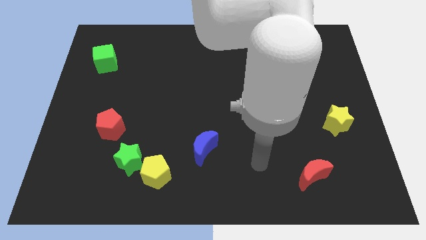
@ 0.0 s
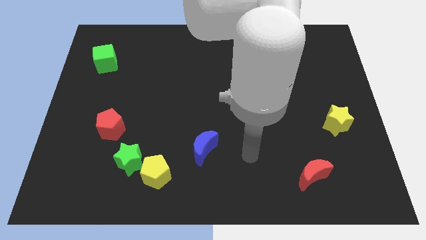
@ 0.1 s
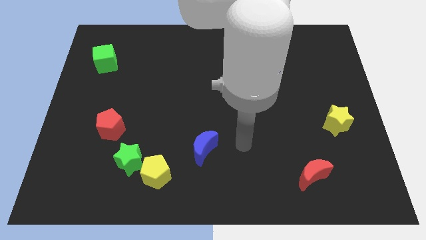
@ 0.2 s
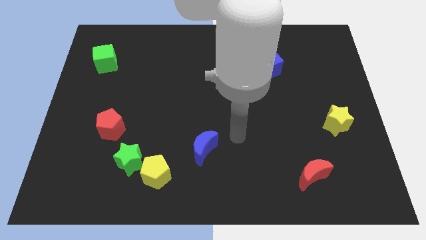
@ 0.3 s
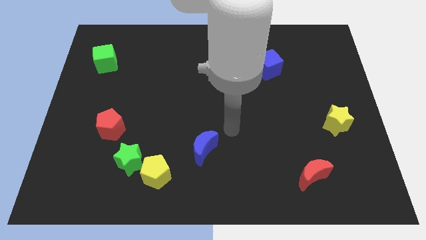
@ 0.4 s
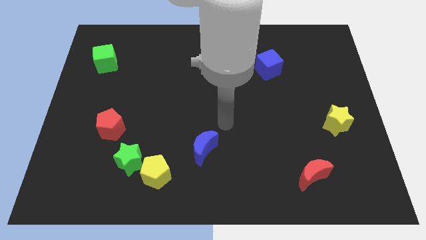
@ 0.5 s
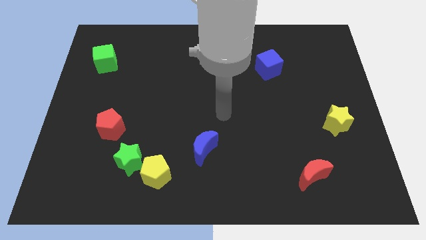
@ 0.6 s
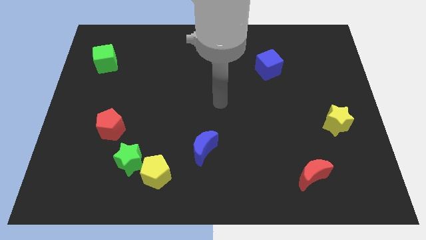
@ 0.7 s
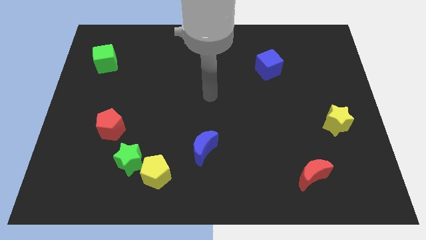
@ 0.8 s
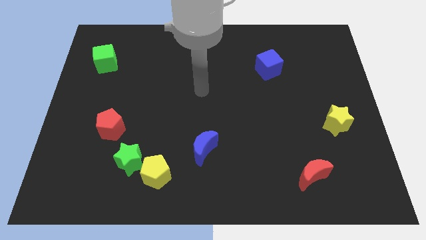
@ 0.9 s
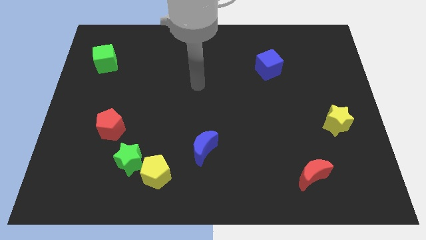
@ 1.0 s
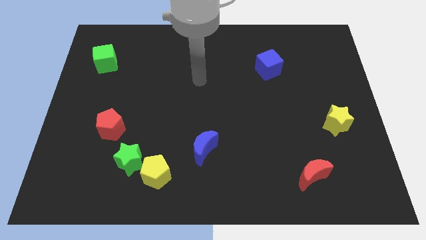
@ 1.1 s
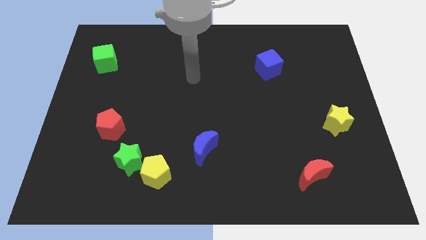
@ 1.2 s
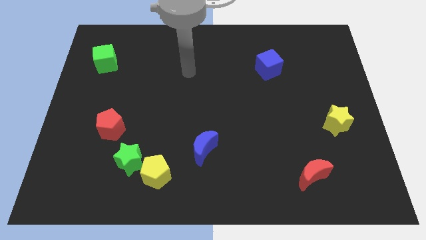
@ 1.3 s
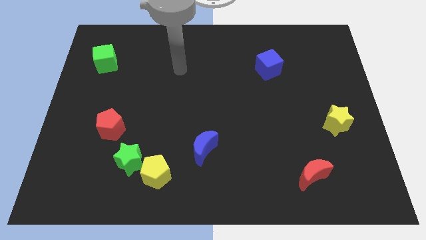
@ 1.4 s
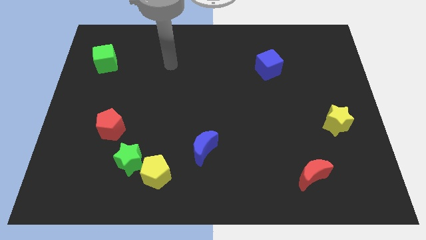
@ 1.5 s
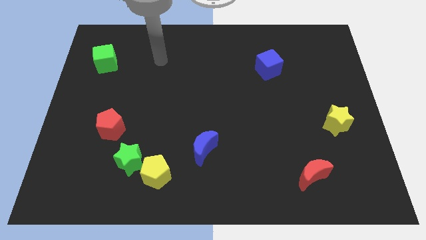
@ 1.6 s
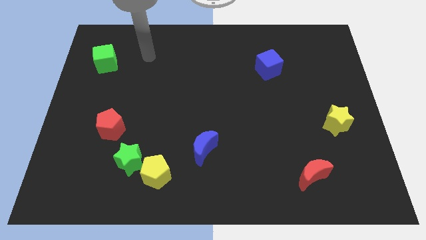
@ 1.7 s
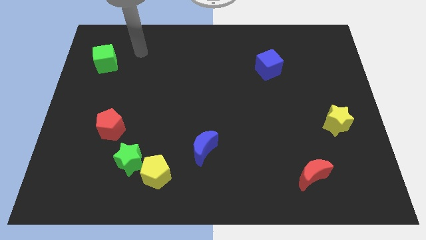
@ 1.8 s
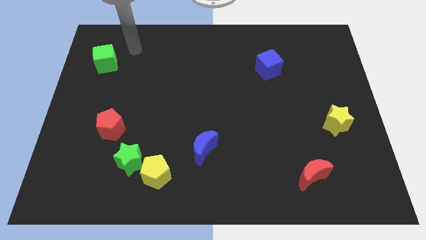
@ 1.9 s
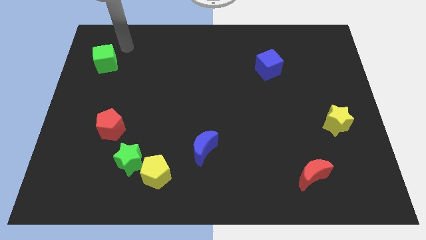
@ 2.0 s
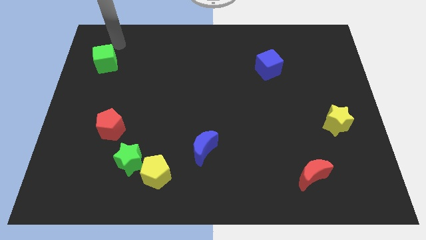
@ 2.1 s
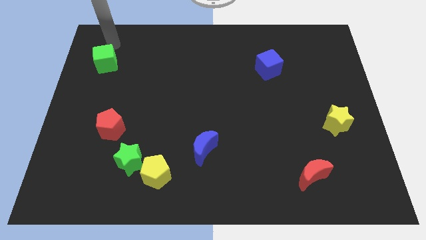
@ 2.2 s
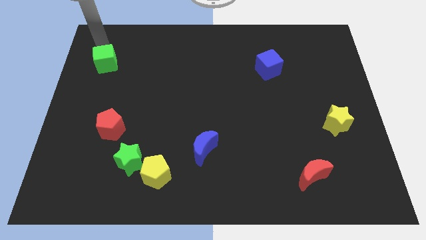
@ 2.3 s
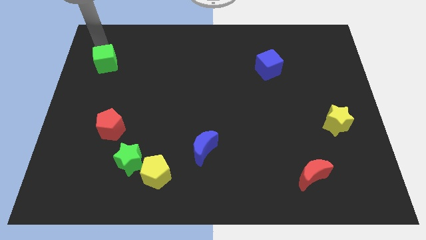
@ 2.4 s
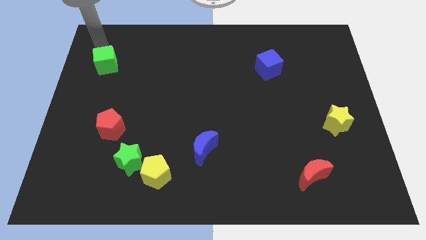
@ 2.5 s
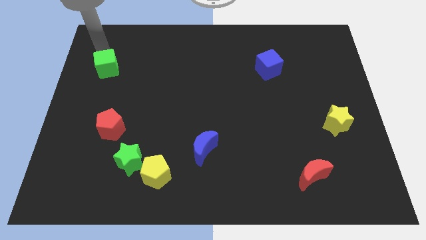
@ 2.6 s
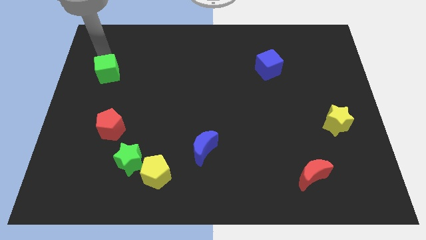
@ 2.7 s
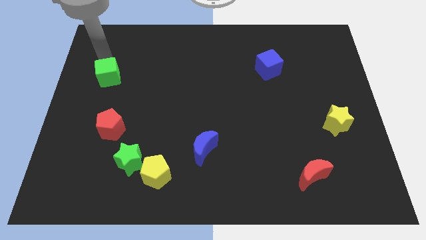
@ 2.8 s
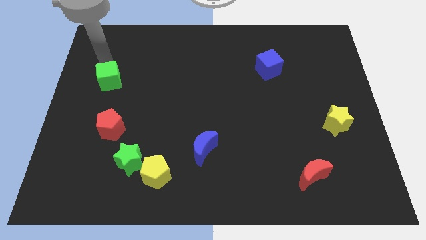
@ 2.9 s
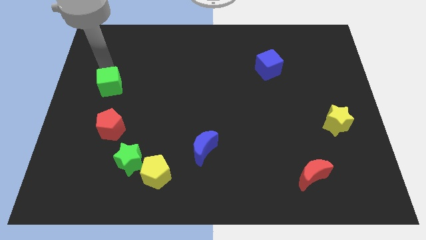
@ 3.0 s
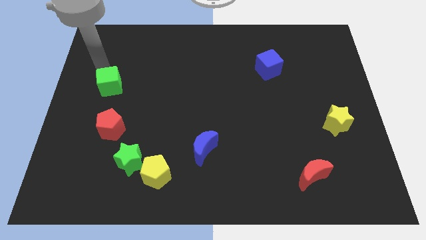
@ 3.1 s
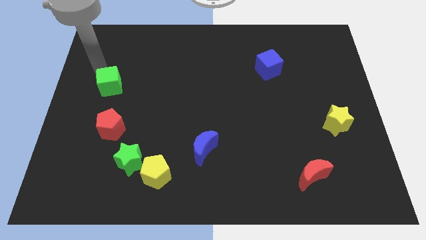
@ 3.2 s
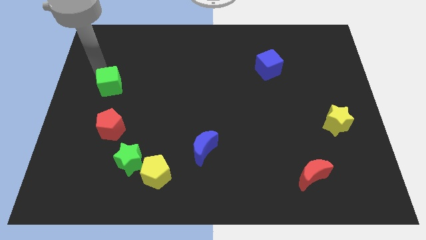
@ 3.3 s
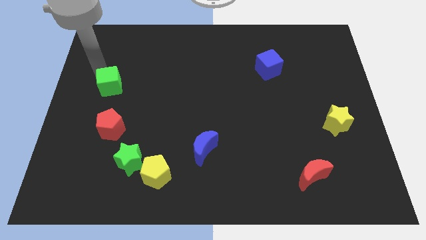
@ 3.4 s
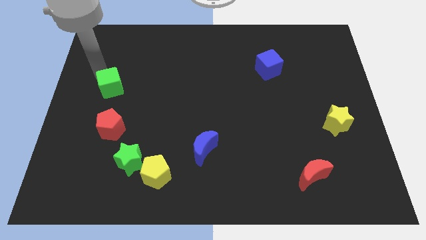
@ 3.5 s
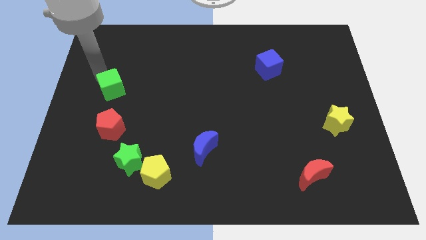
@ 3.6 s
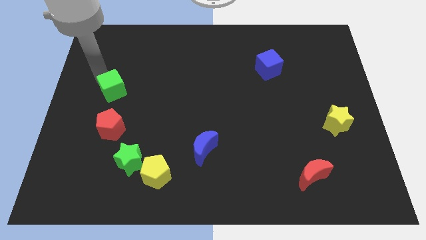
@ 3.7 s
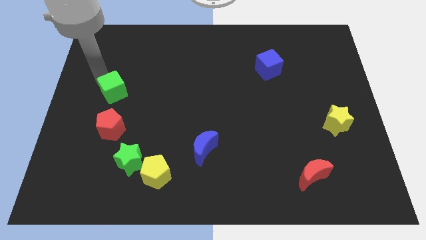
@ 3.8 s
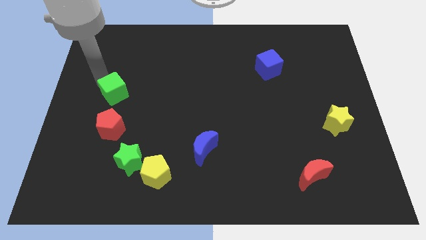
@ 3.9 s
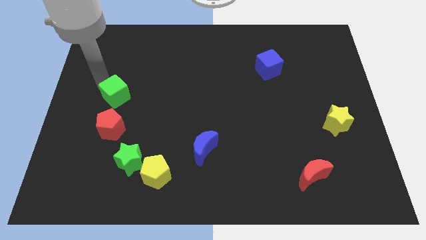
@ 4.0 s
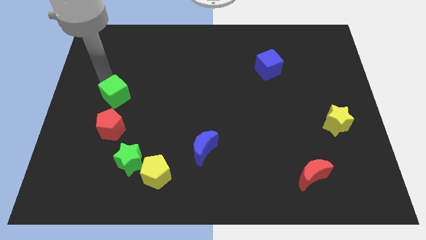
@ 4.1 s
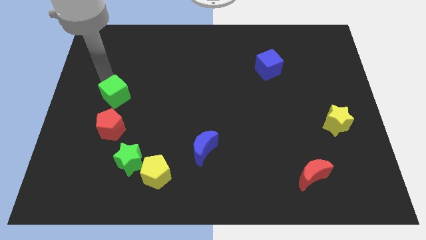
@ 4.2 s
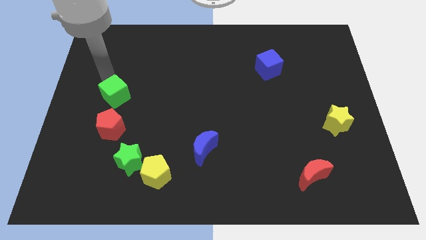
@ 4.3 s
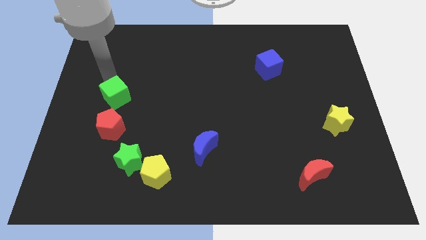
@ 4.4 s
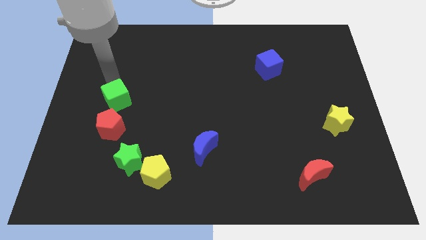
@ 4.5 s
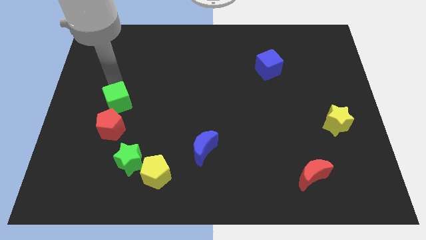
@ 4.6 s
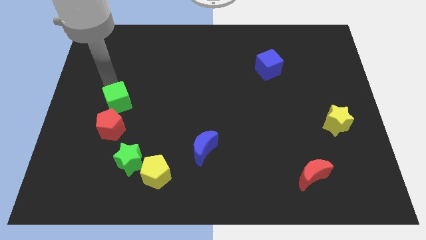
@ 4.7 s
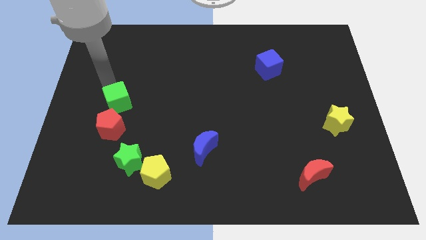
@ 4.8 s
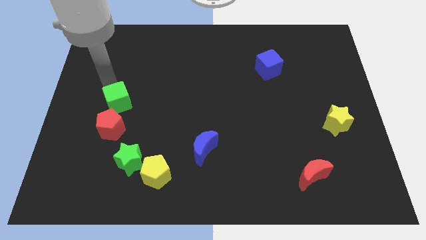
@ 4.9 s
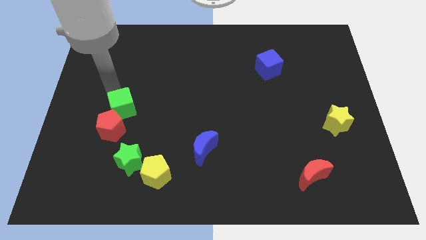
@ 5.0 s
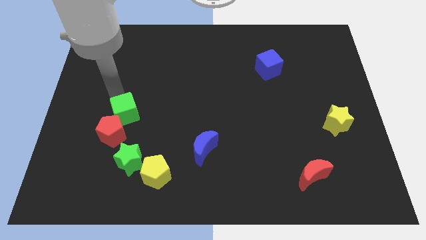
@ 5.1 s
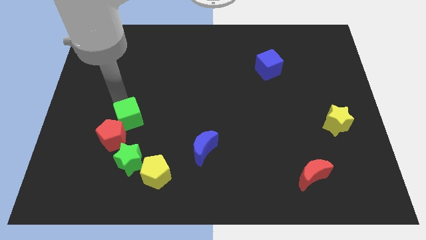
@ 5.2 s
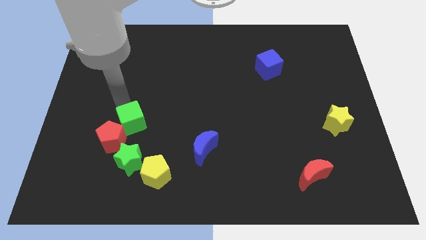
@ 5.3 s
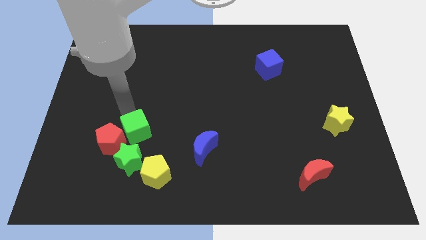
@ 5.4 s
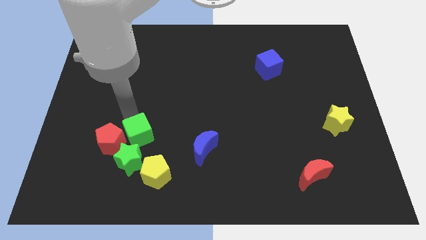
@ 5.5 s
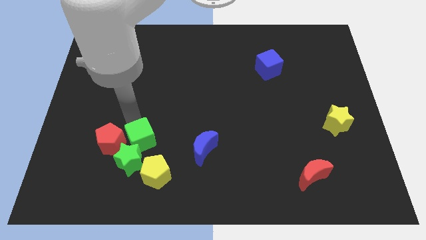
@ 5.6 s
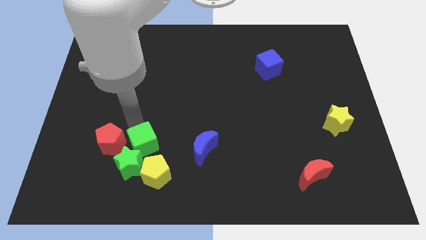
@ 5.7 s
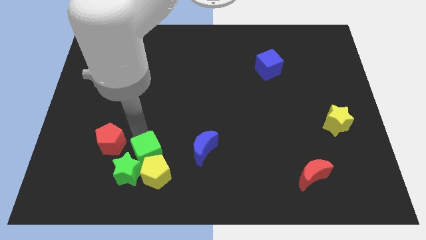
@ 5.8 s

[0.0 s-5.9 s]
push the green cube close to the yellow pentagon

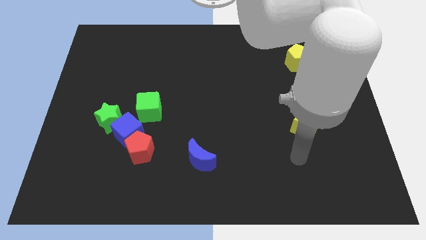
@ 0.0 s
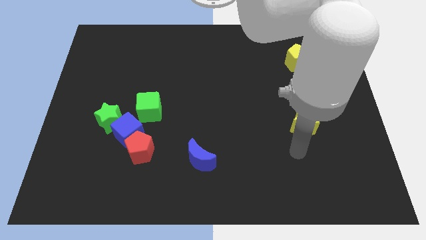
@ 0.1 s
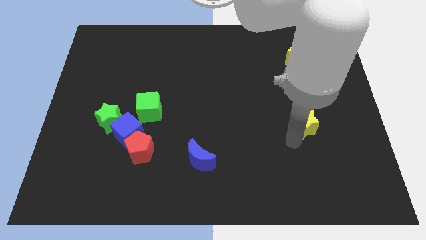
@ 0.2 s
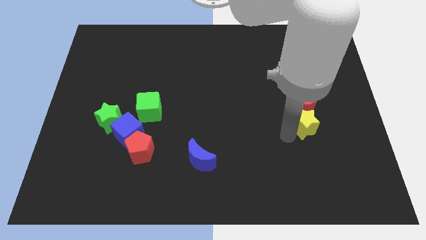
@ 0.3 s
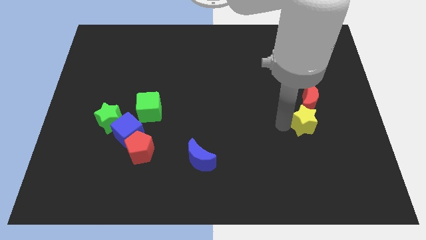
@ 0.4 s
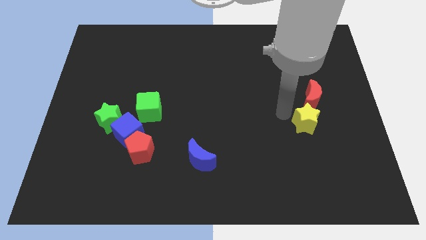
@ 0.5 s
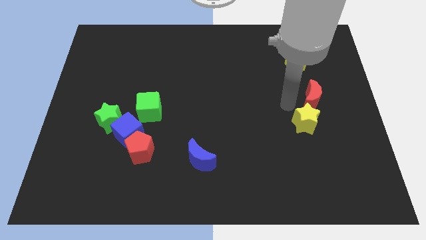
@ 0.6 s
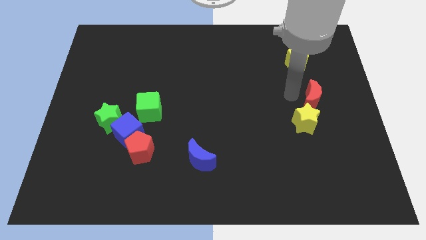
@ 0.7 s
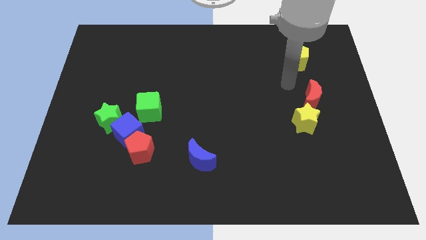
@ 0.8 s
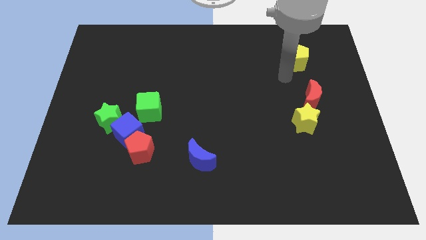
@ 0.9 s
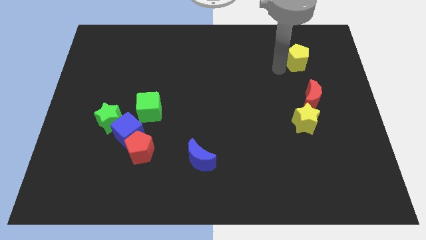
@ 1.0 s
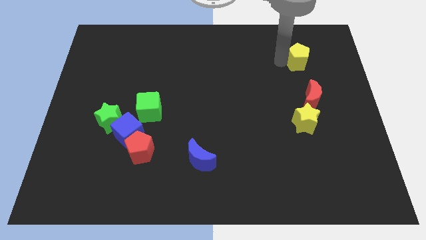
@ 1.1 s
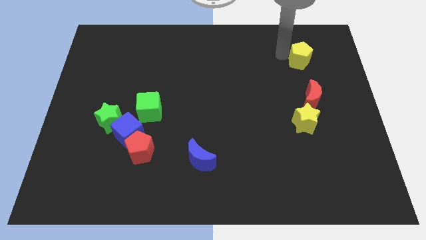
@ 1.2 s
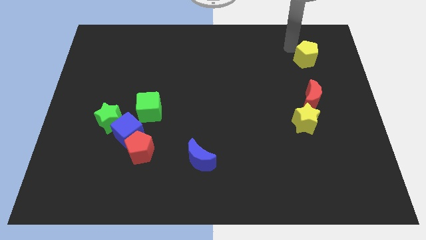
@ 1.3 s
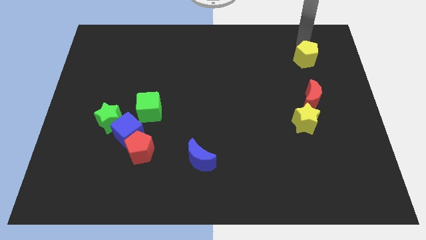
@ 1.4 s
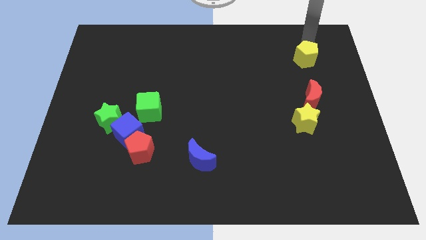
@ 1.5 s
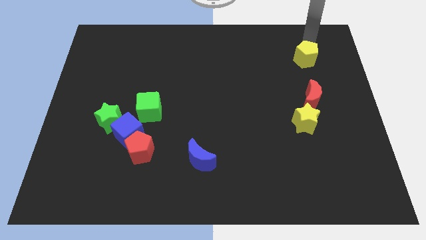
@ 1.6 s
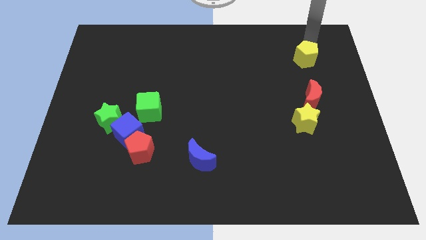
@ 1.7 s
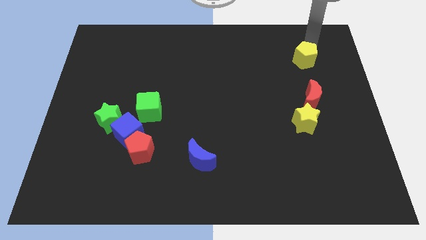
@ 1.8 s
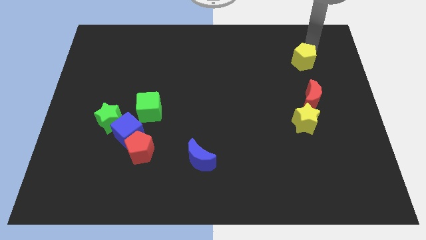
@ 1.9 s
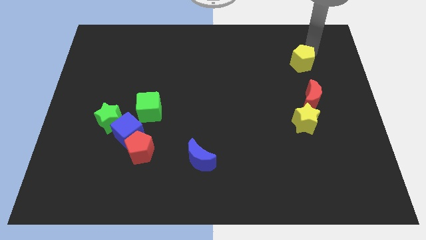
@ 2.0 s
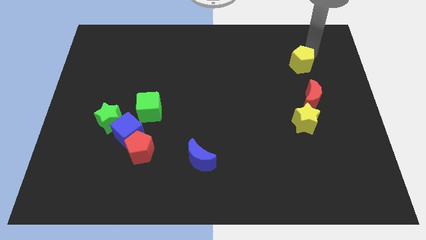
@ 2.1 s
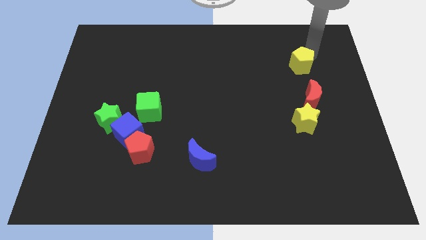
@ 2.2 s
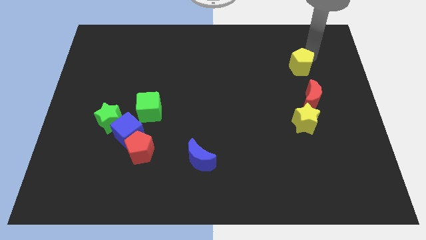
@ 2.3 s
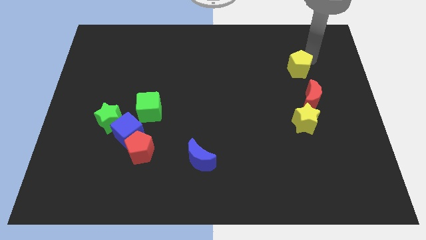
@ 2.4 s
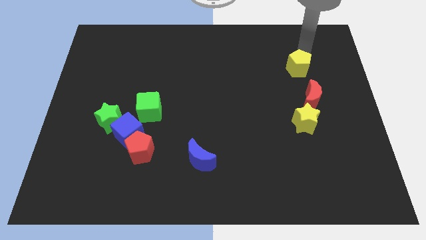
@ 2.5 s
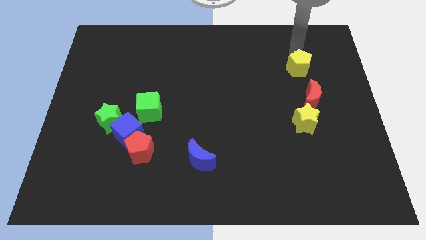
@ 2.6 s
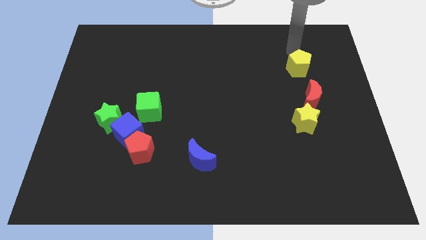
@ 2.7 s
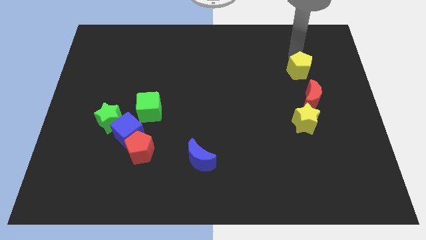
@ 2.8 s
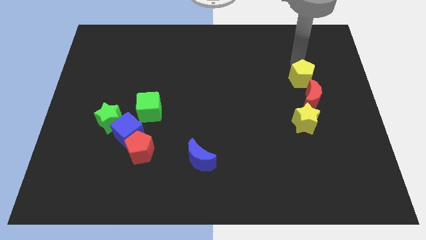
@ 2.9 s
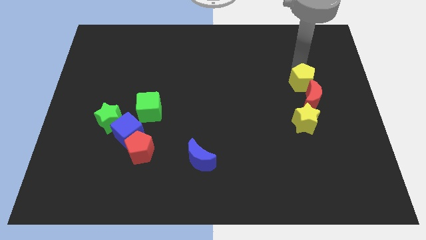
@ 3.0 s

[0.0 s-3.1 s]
put the yellow pentagon close to the red moon
